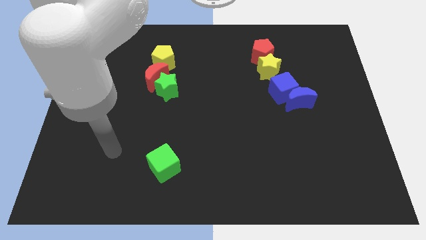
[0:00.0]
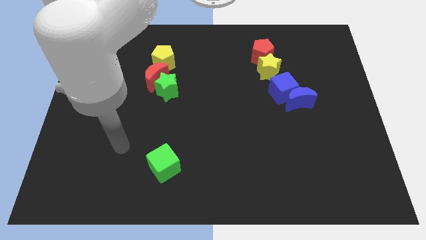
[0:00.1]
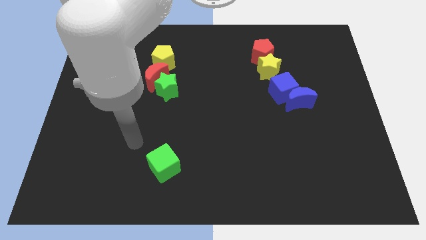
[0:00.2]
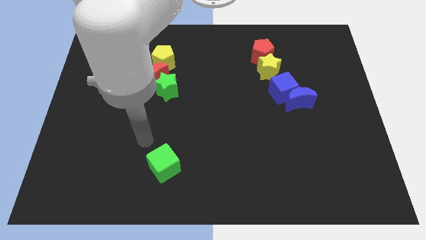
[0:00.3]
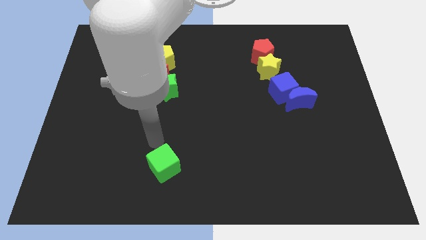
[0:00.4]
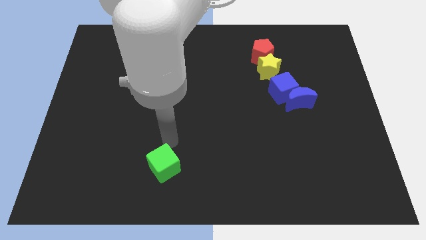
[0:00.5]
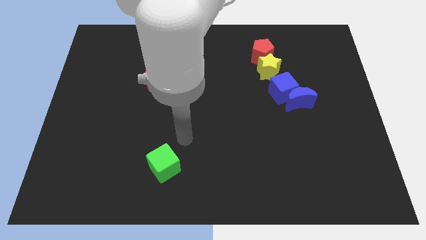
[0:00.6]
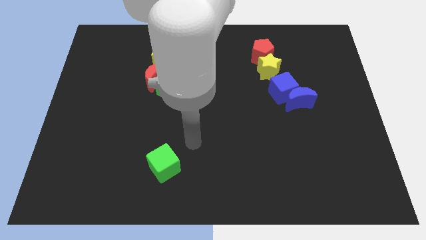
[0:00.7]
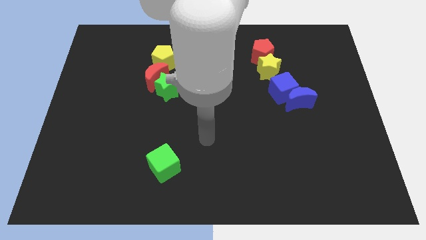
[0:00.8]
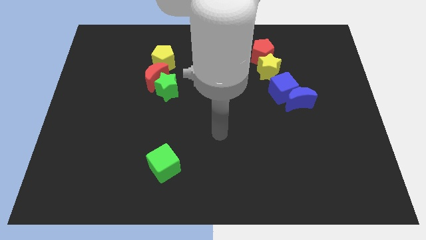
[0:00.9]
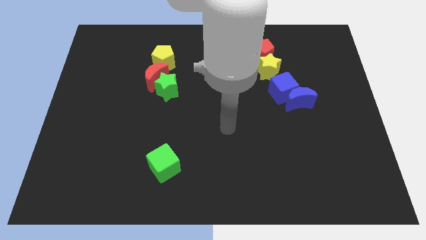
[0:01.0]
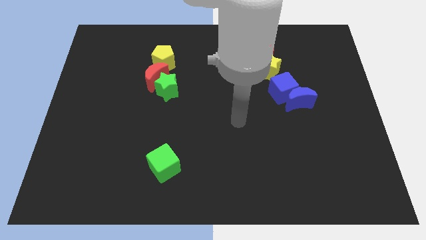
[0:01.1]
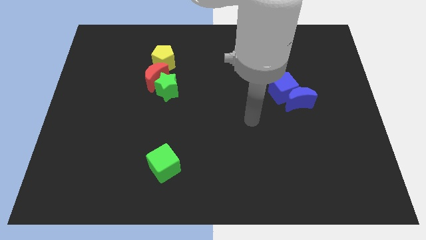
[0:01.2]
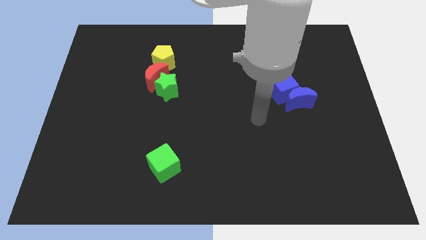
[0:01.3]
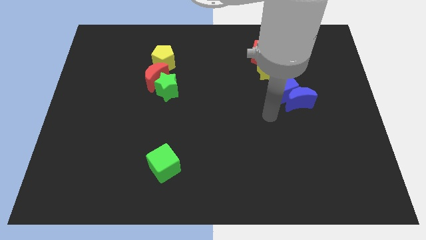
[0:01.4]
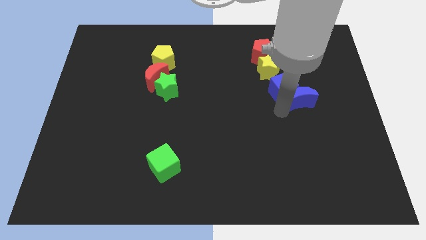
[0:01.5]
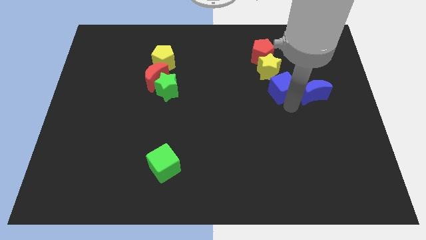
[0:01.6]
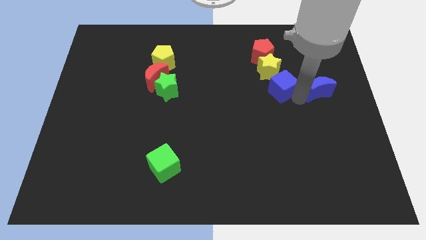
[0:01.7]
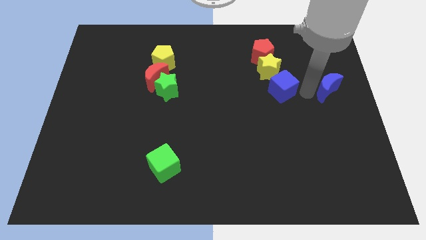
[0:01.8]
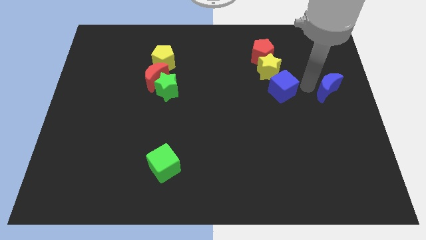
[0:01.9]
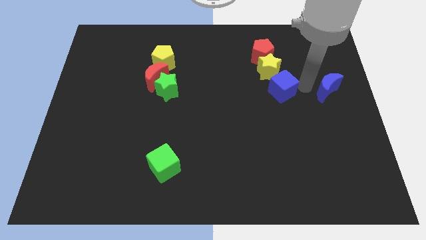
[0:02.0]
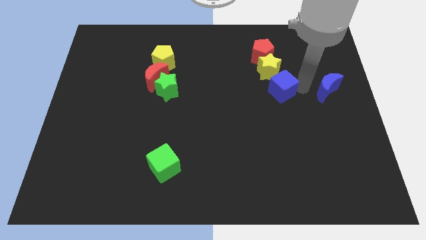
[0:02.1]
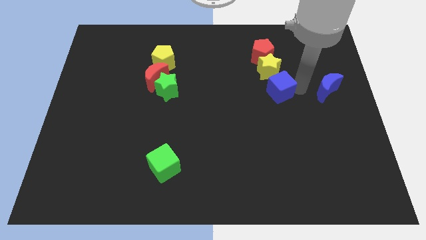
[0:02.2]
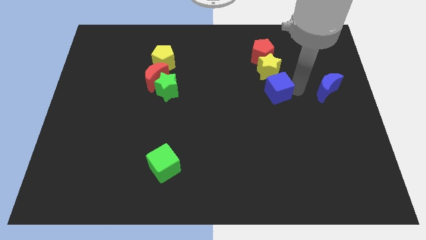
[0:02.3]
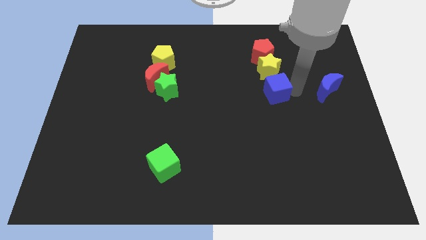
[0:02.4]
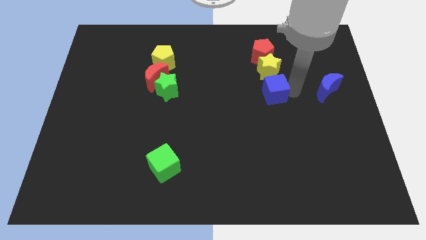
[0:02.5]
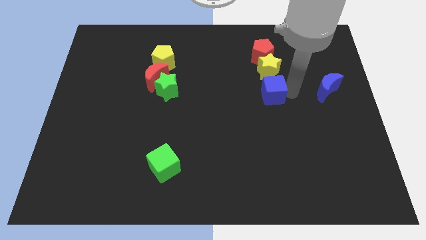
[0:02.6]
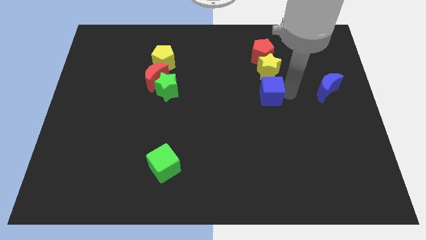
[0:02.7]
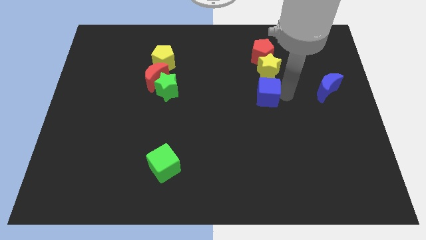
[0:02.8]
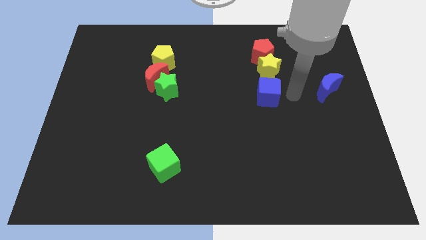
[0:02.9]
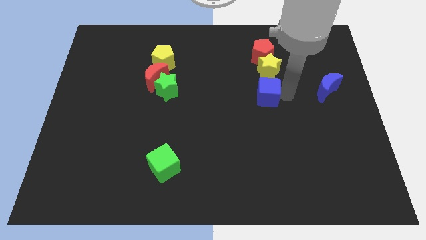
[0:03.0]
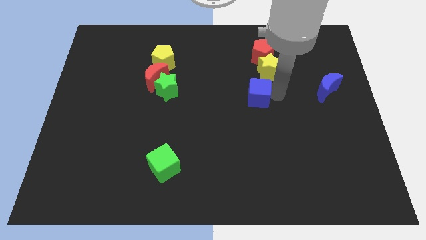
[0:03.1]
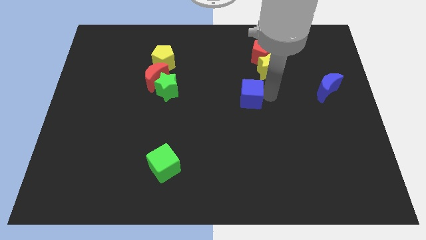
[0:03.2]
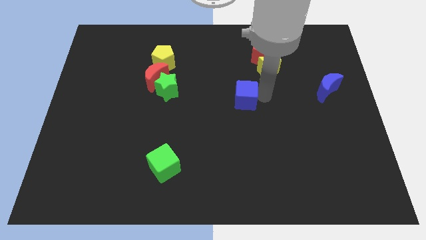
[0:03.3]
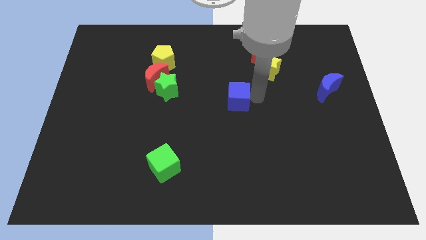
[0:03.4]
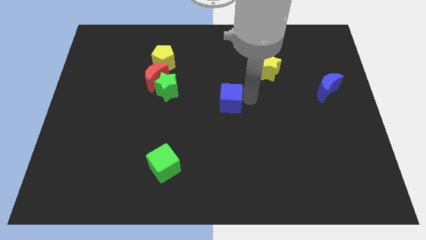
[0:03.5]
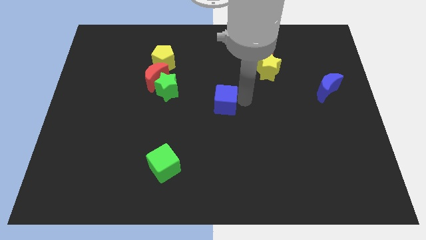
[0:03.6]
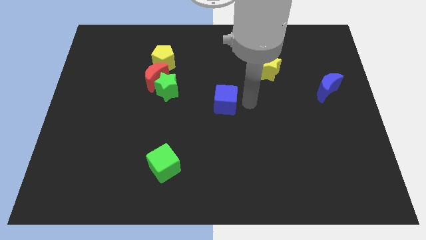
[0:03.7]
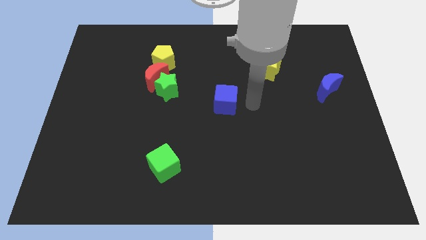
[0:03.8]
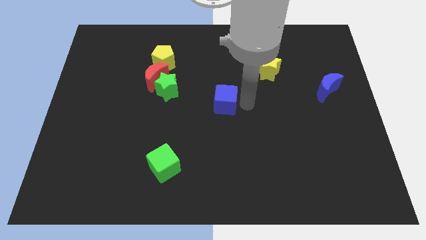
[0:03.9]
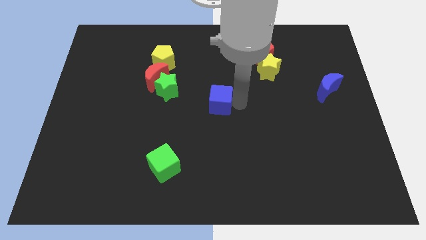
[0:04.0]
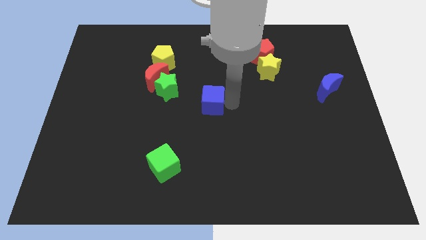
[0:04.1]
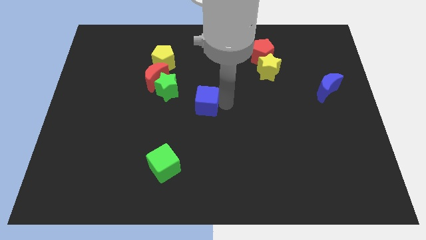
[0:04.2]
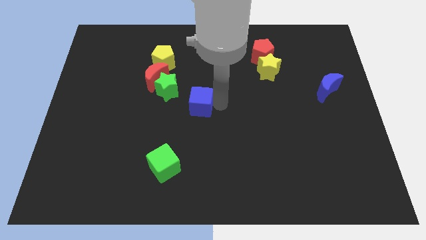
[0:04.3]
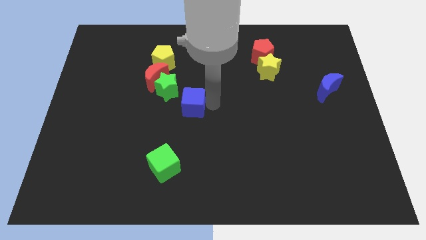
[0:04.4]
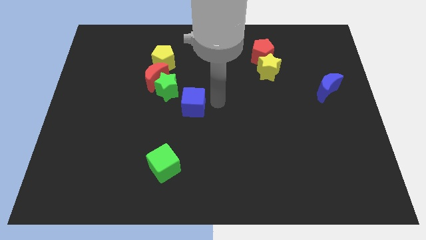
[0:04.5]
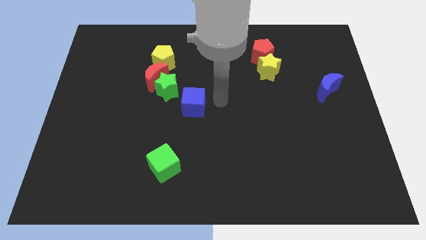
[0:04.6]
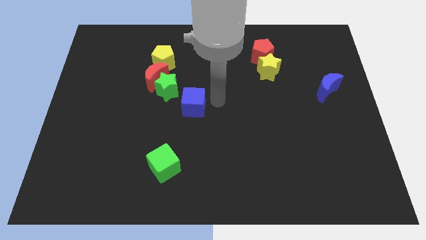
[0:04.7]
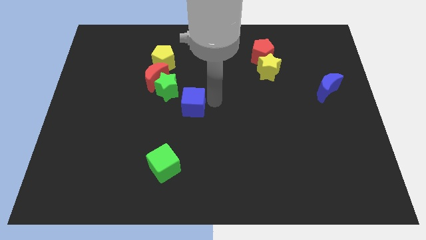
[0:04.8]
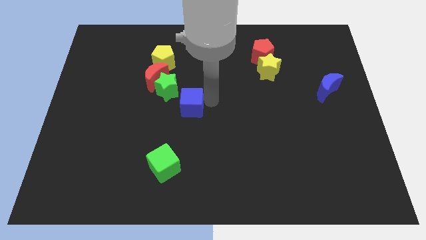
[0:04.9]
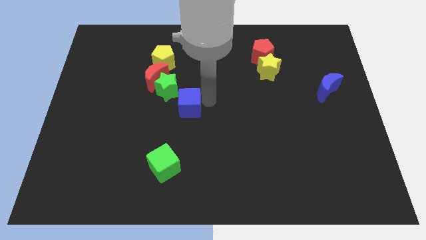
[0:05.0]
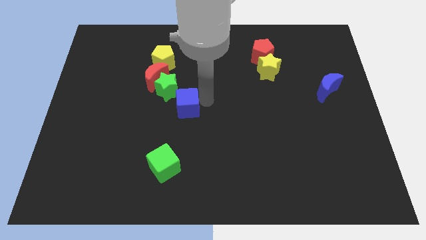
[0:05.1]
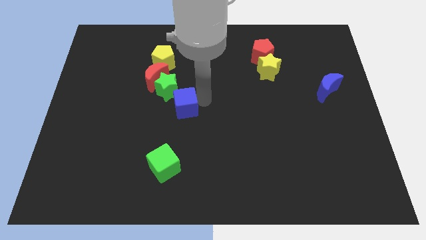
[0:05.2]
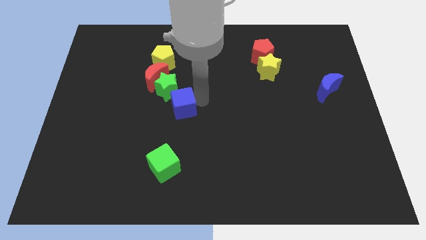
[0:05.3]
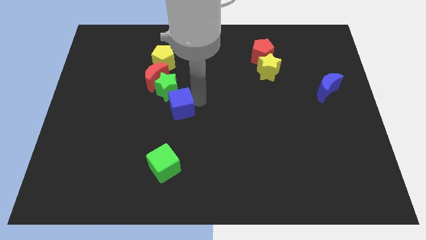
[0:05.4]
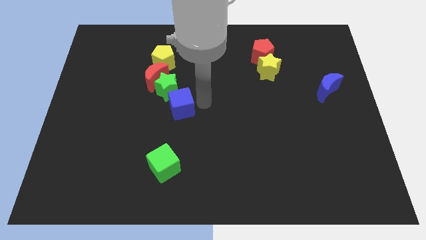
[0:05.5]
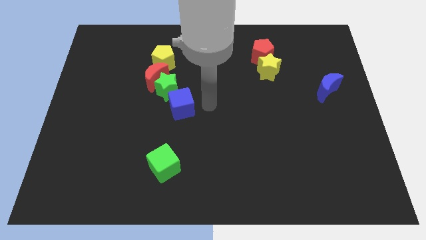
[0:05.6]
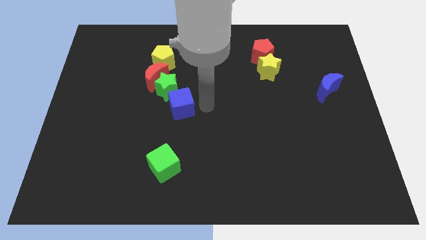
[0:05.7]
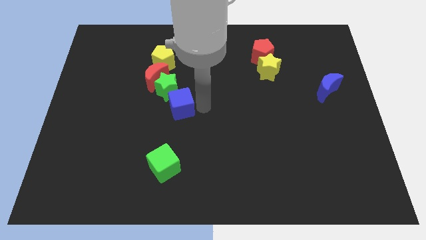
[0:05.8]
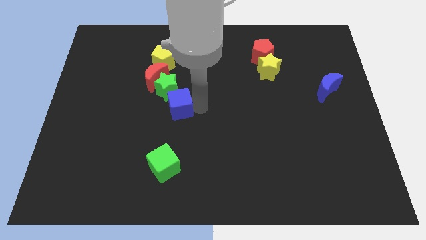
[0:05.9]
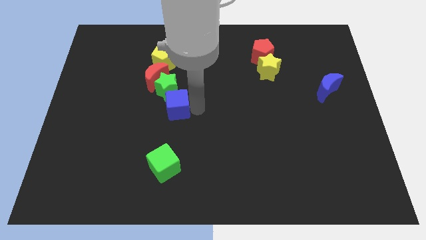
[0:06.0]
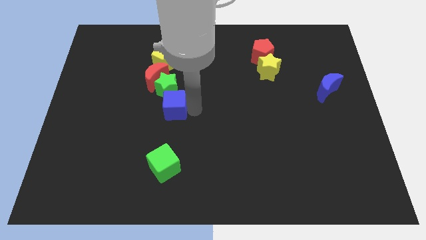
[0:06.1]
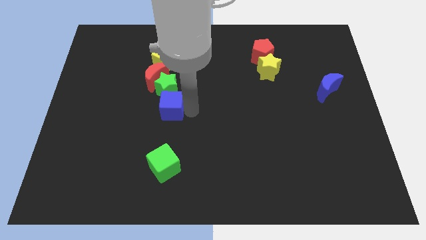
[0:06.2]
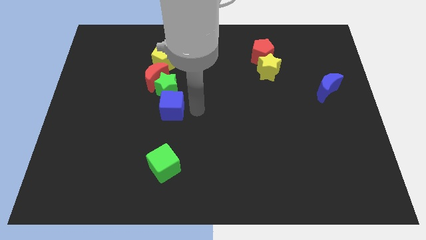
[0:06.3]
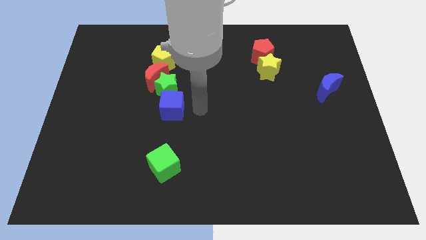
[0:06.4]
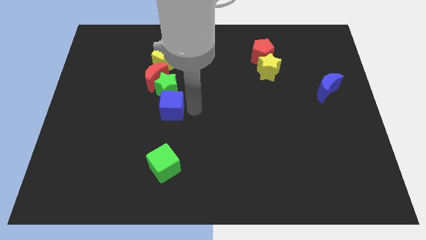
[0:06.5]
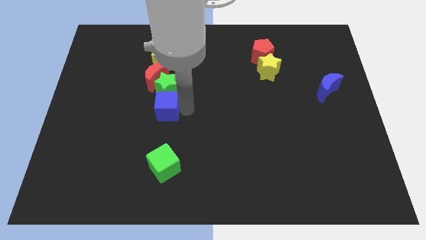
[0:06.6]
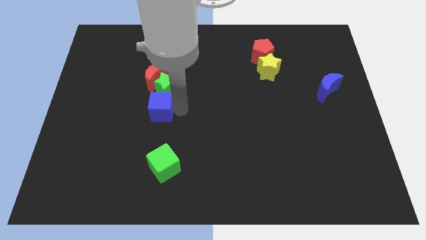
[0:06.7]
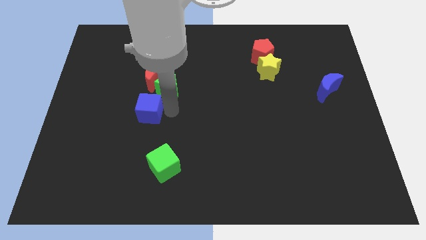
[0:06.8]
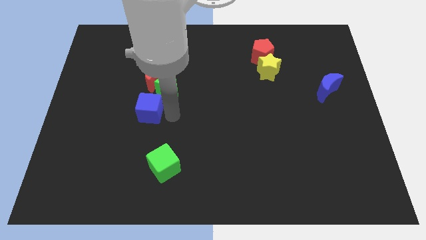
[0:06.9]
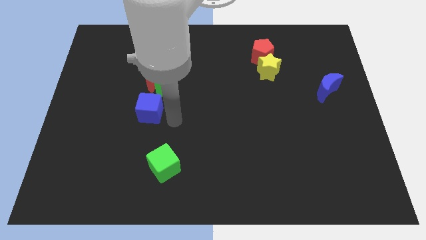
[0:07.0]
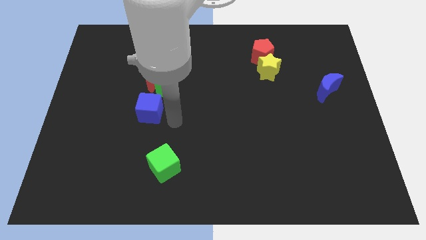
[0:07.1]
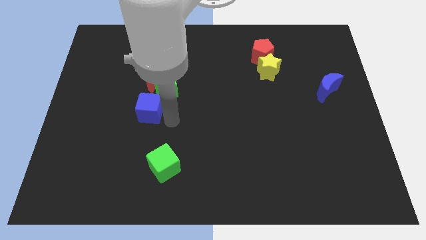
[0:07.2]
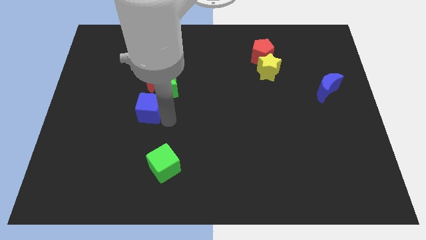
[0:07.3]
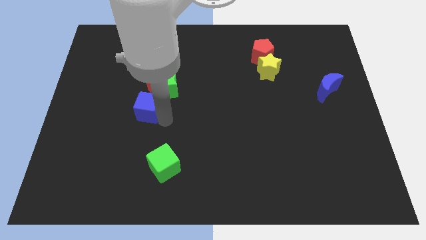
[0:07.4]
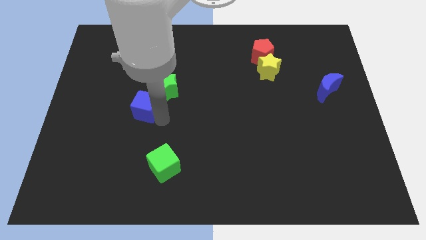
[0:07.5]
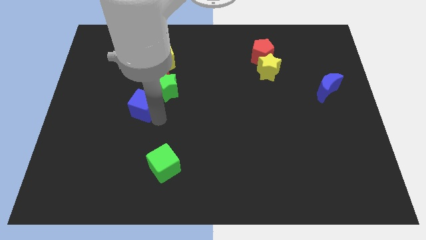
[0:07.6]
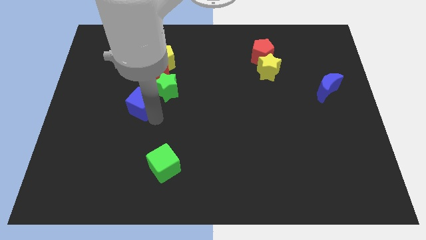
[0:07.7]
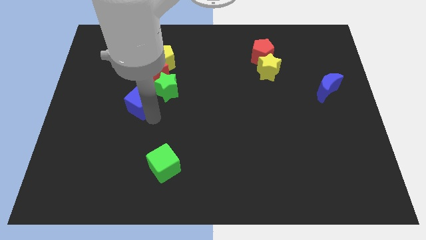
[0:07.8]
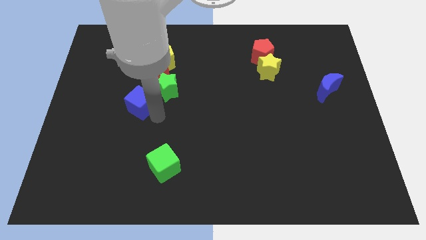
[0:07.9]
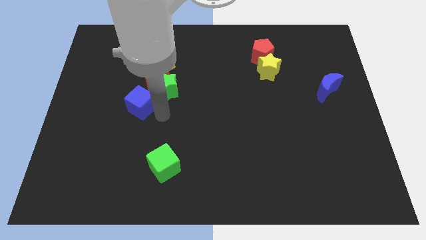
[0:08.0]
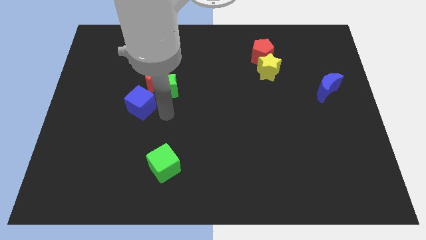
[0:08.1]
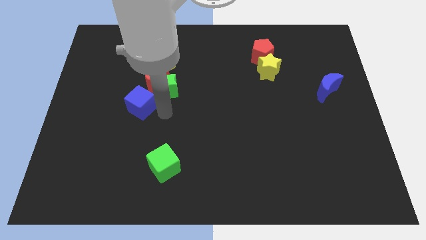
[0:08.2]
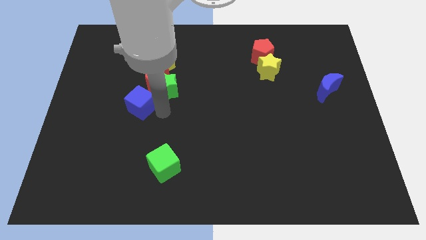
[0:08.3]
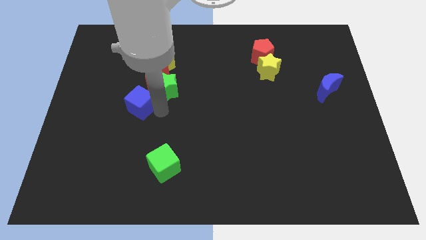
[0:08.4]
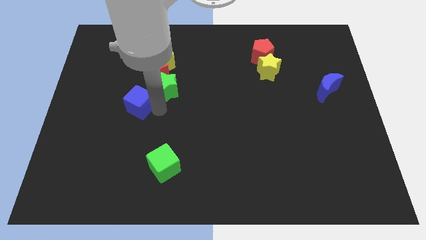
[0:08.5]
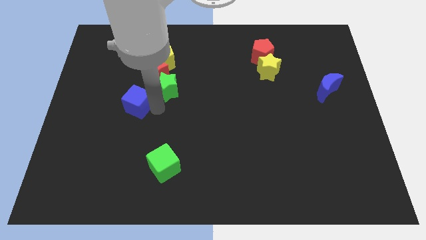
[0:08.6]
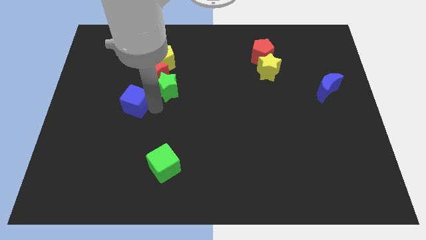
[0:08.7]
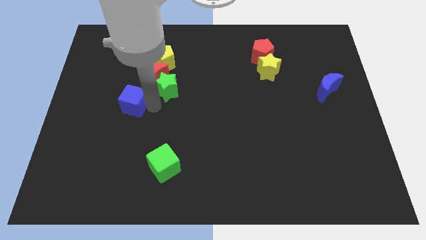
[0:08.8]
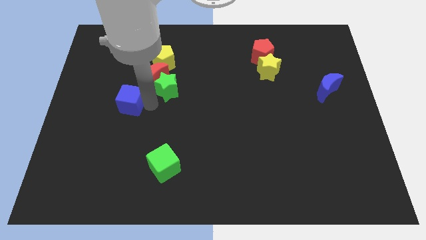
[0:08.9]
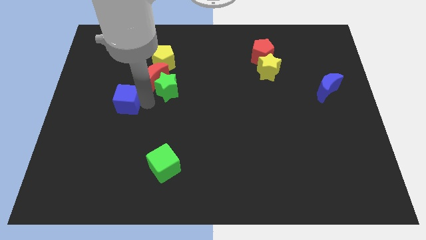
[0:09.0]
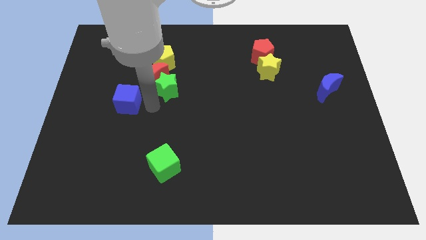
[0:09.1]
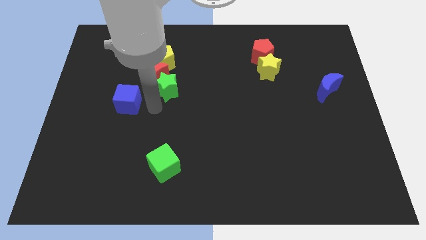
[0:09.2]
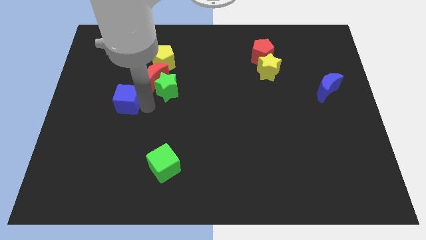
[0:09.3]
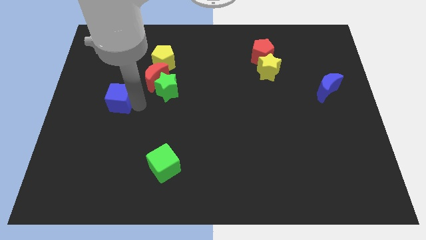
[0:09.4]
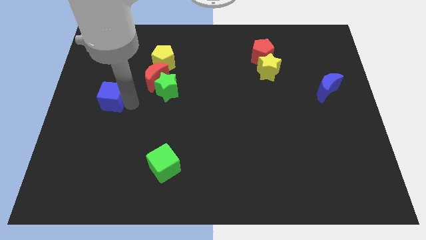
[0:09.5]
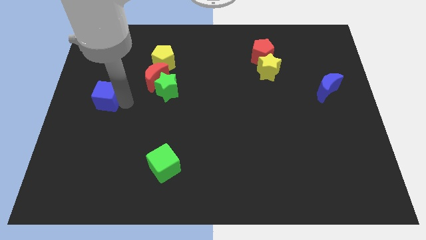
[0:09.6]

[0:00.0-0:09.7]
slide the blue cube to the left side
